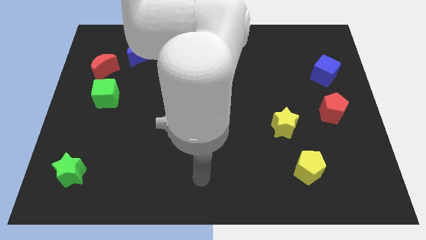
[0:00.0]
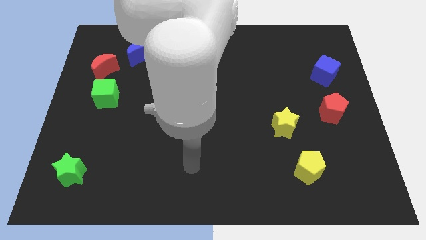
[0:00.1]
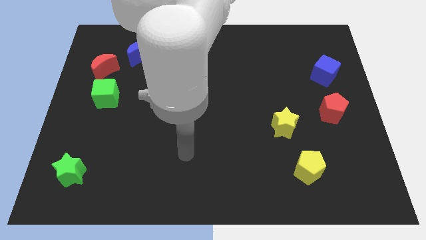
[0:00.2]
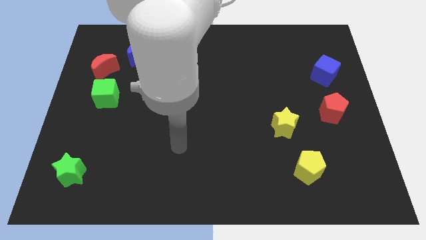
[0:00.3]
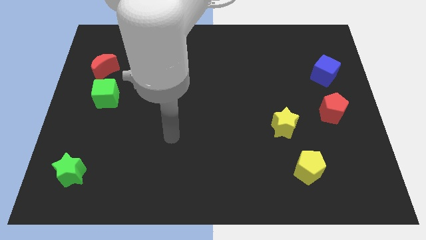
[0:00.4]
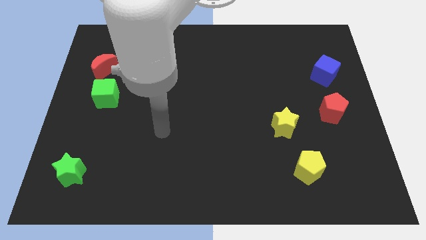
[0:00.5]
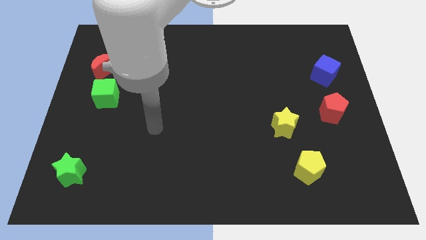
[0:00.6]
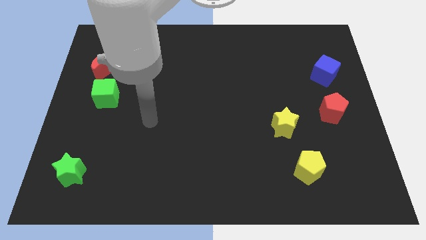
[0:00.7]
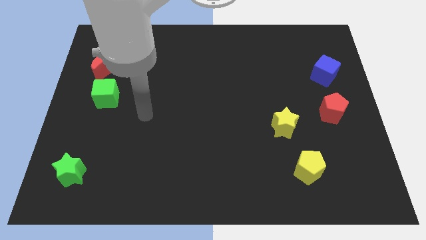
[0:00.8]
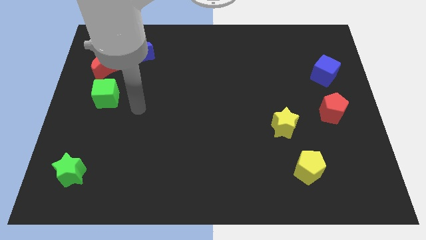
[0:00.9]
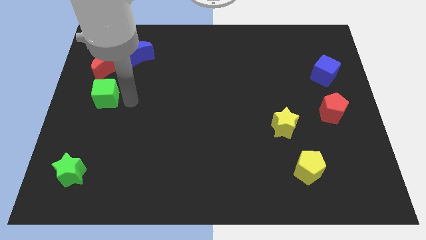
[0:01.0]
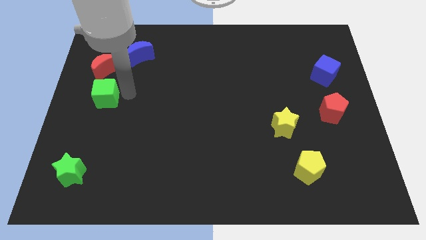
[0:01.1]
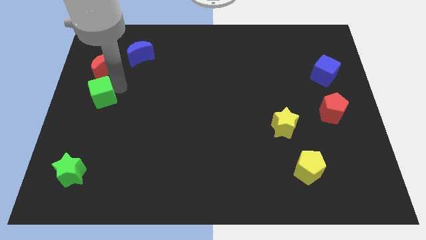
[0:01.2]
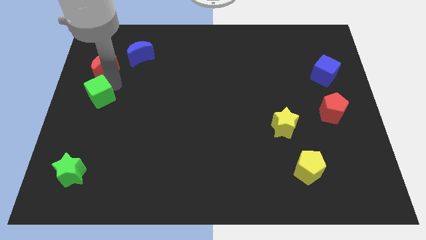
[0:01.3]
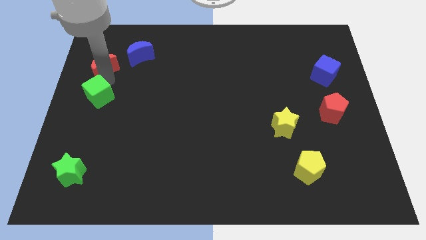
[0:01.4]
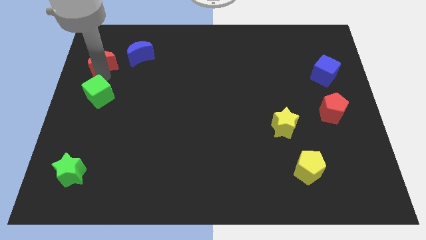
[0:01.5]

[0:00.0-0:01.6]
separate the green cube from the red moon

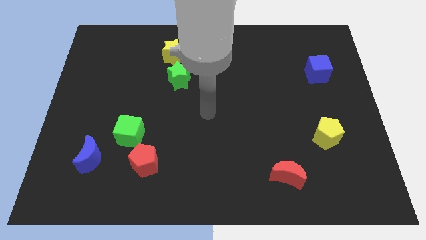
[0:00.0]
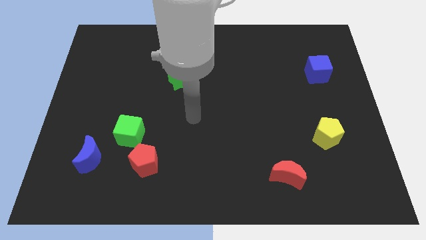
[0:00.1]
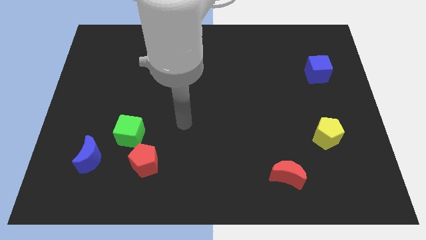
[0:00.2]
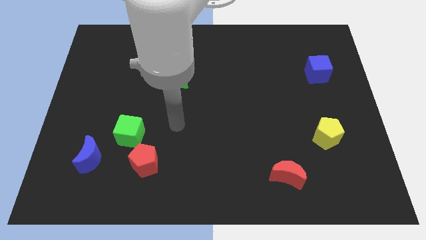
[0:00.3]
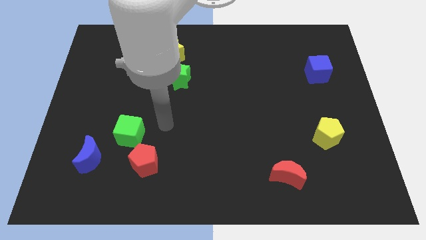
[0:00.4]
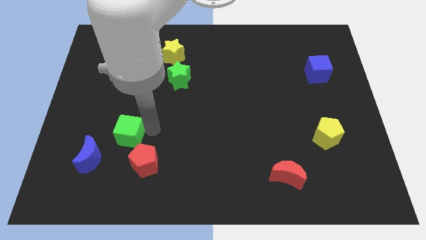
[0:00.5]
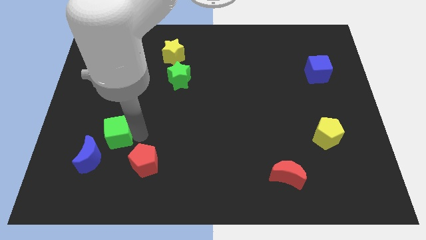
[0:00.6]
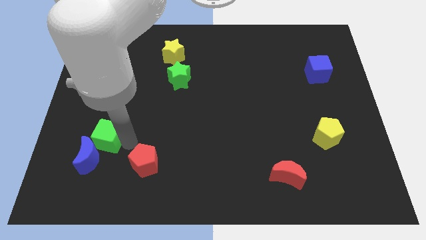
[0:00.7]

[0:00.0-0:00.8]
move the red pentagon away from the green cube

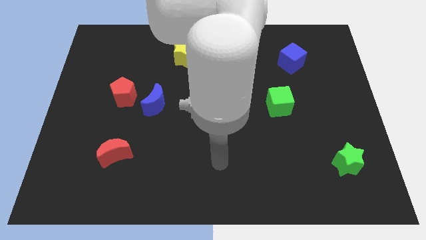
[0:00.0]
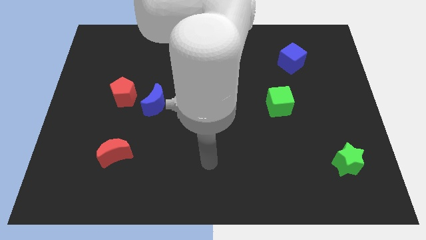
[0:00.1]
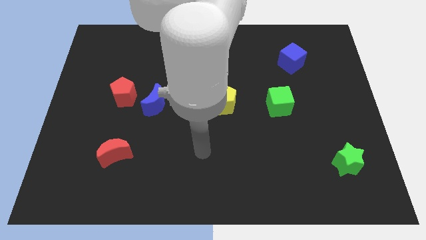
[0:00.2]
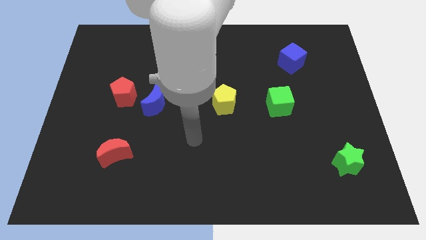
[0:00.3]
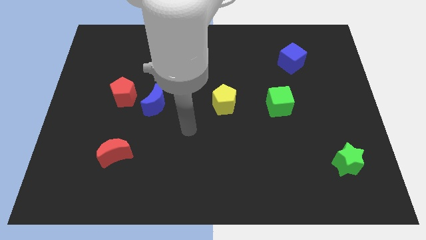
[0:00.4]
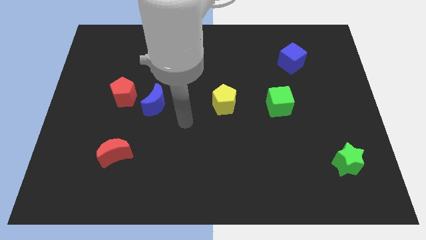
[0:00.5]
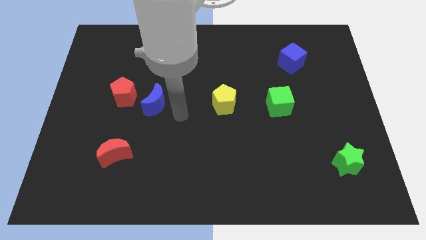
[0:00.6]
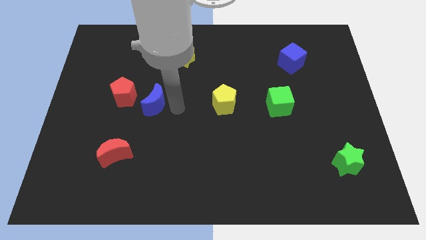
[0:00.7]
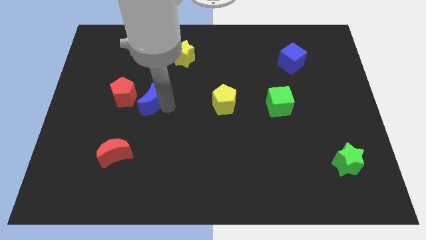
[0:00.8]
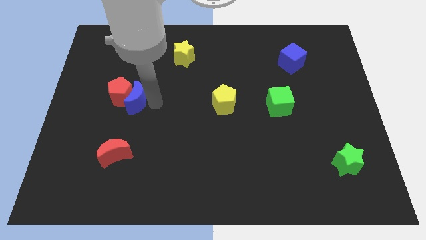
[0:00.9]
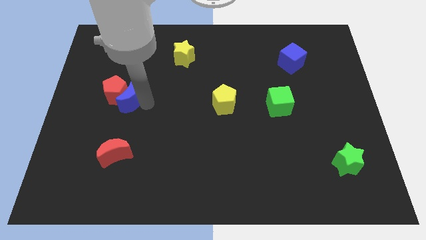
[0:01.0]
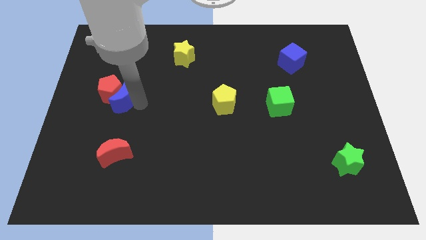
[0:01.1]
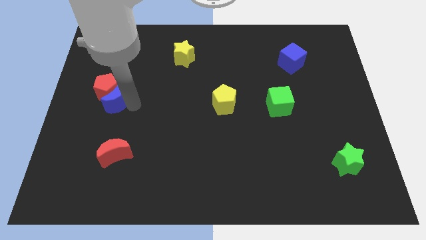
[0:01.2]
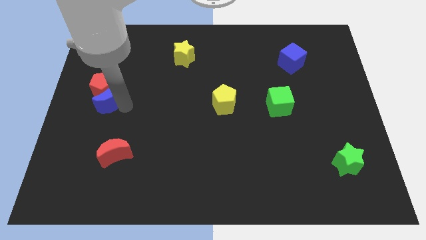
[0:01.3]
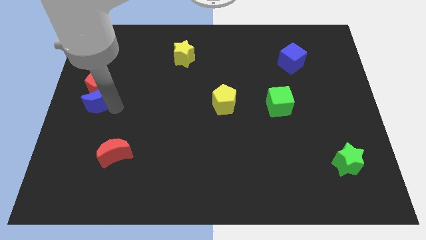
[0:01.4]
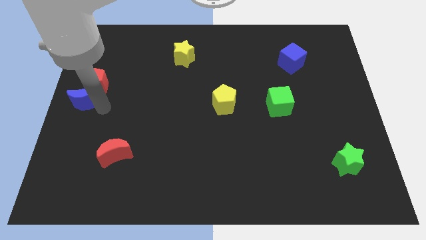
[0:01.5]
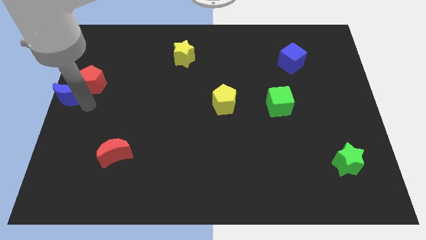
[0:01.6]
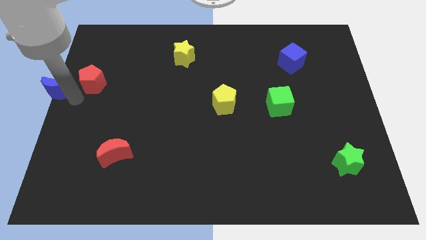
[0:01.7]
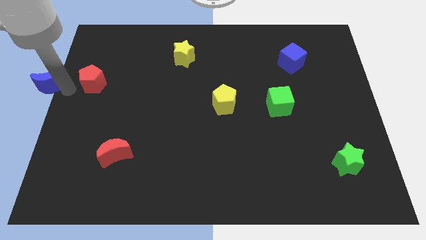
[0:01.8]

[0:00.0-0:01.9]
pull the red pentagon apart from the blue moon

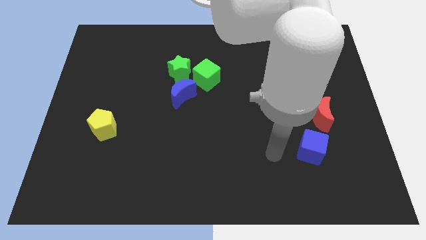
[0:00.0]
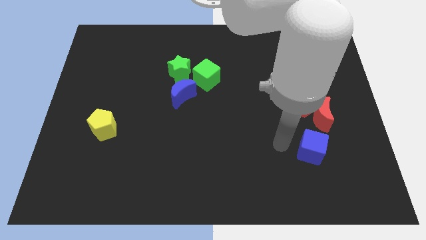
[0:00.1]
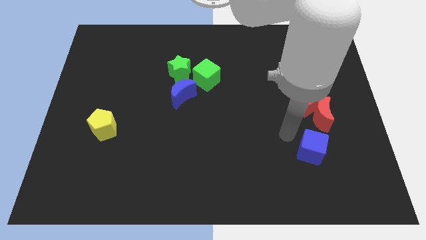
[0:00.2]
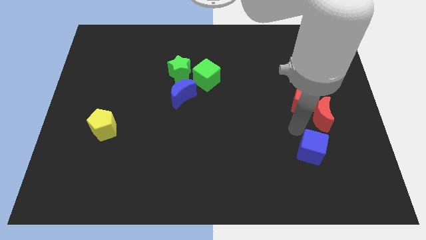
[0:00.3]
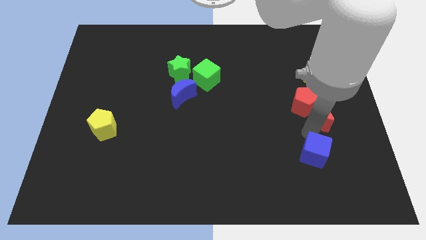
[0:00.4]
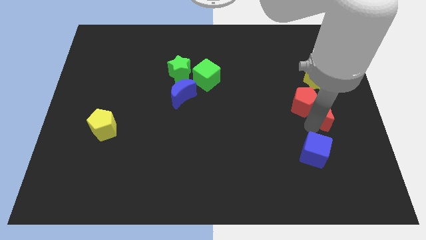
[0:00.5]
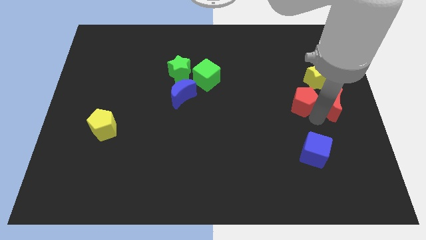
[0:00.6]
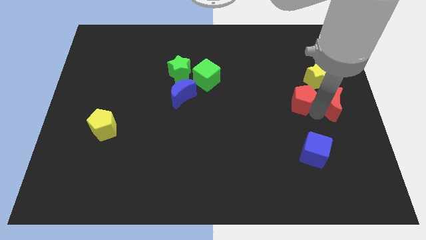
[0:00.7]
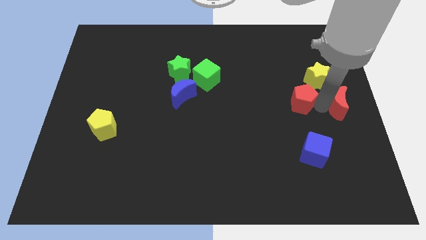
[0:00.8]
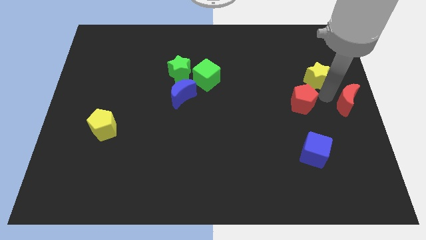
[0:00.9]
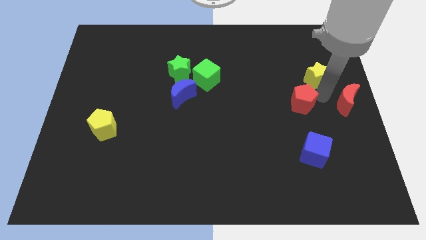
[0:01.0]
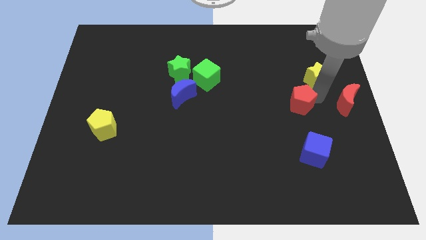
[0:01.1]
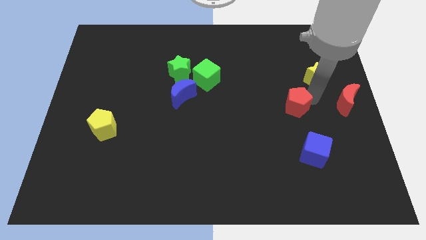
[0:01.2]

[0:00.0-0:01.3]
pull the red pentagon apart from the red moon and yellow star

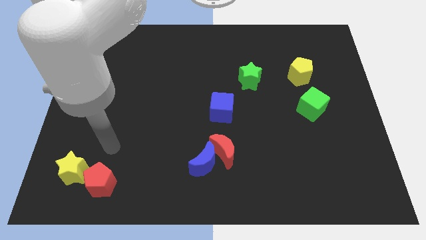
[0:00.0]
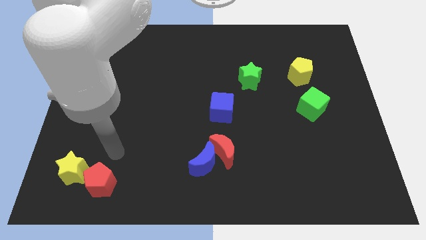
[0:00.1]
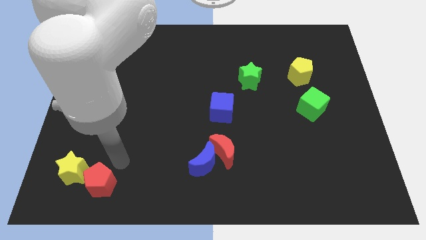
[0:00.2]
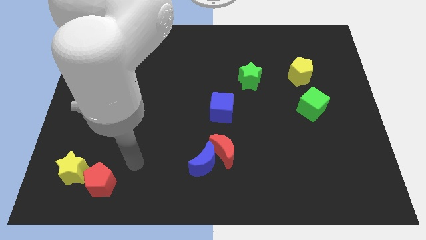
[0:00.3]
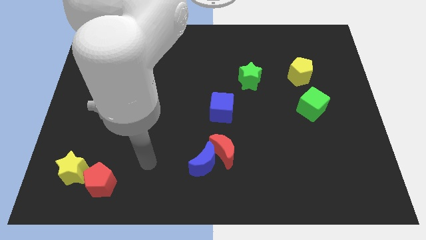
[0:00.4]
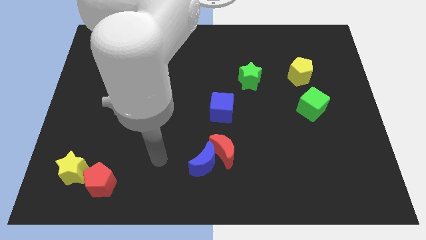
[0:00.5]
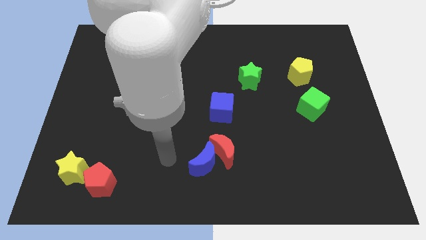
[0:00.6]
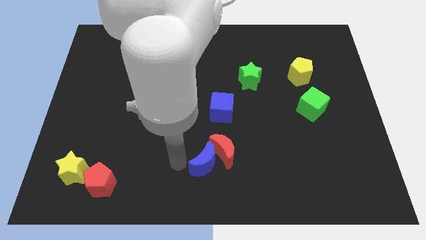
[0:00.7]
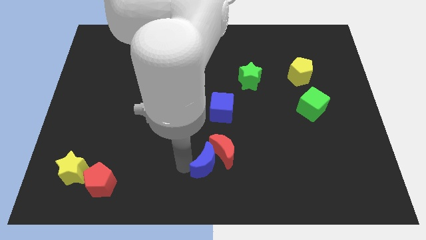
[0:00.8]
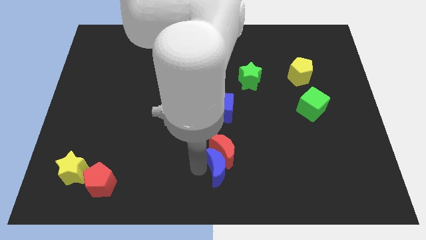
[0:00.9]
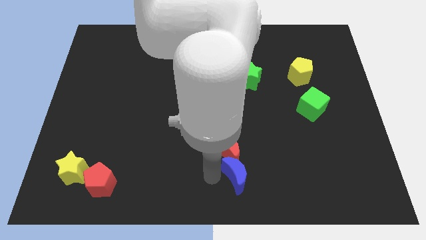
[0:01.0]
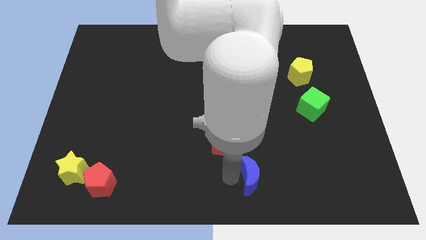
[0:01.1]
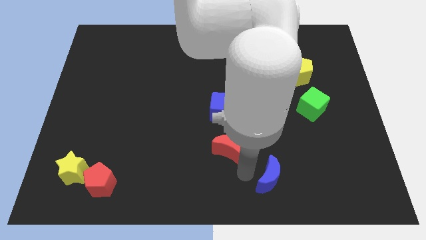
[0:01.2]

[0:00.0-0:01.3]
pull the red moon apart from the blue moon

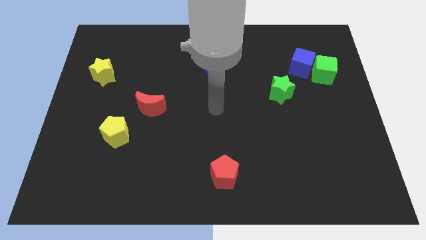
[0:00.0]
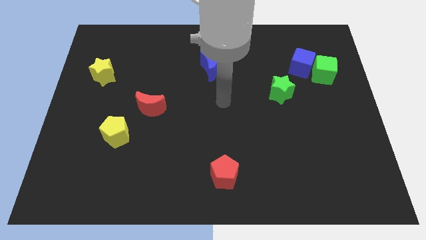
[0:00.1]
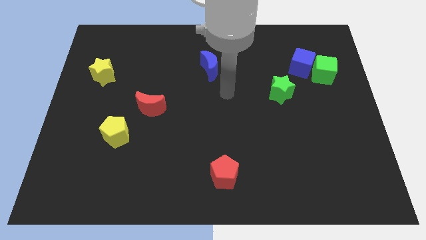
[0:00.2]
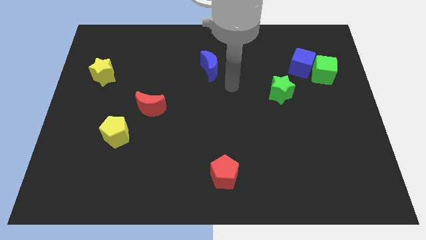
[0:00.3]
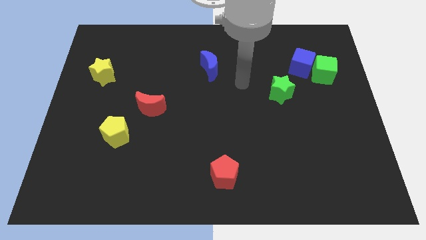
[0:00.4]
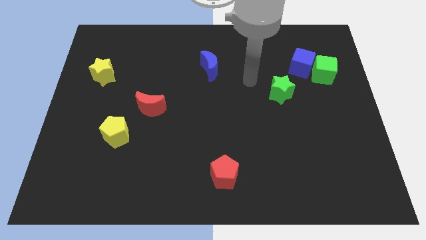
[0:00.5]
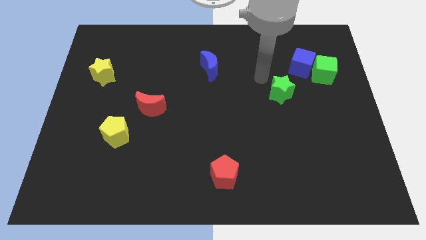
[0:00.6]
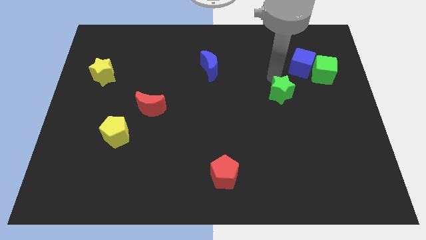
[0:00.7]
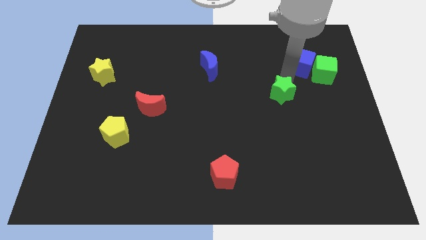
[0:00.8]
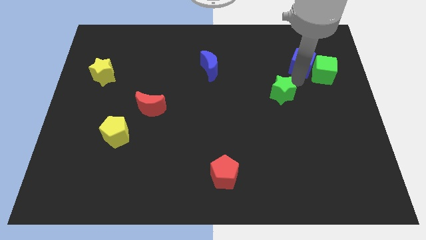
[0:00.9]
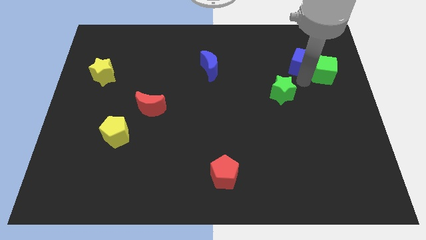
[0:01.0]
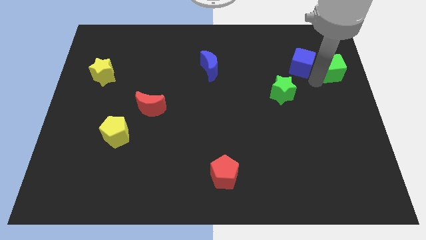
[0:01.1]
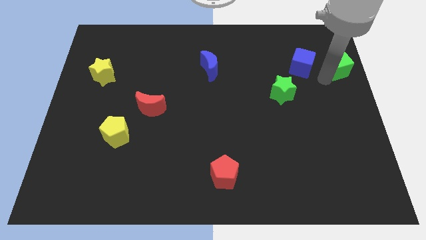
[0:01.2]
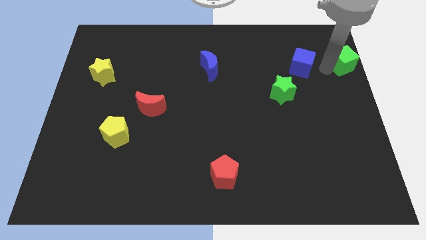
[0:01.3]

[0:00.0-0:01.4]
move the blue cube away from the green cube

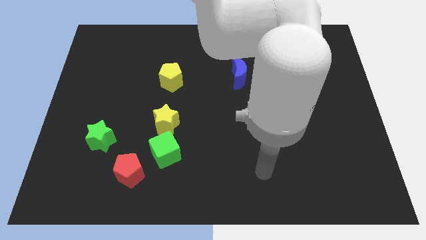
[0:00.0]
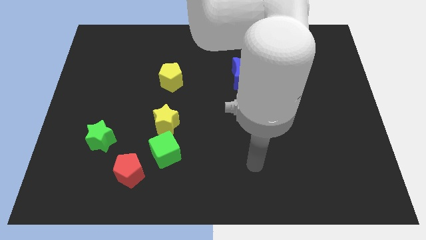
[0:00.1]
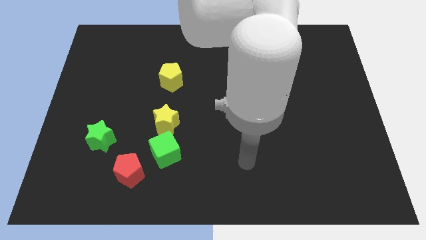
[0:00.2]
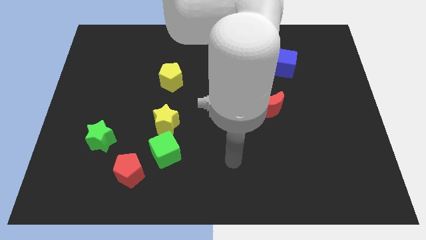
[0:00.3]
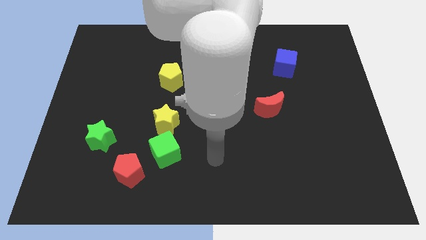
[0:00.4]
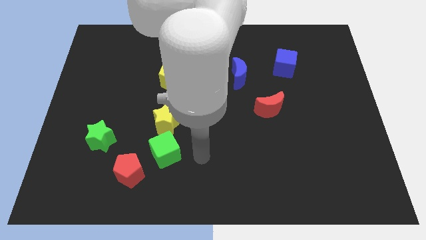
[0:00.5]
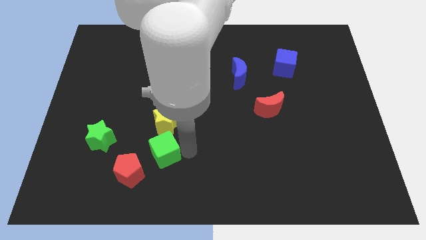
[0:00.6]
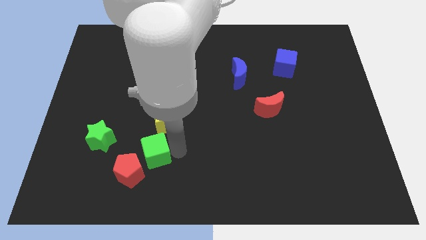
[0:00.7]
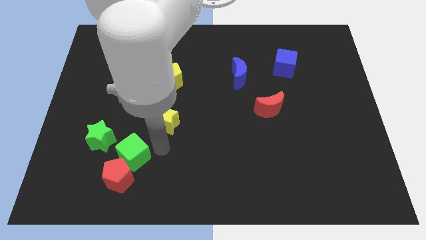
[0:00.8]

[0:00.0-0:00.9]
separate the yellow star from the green cube
